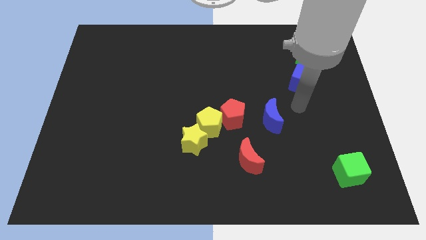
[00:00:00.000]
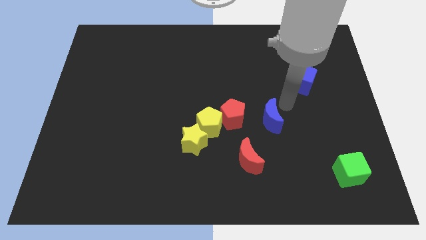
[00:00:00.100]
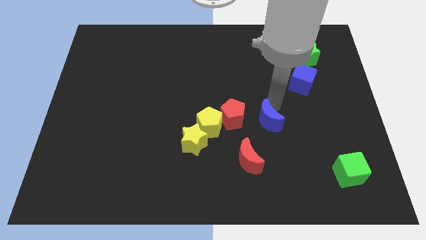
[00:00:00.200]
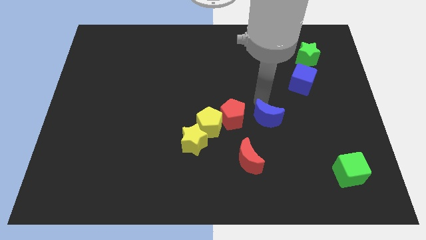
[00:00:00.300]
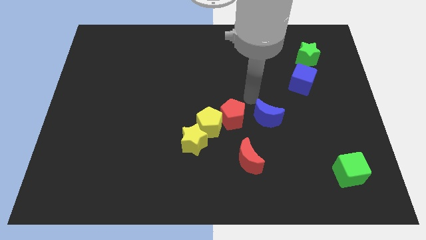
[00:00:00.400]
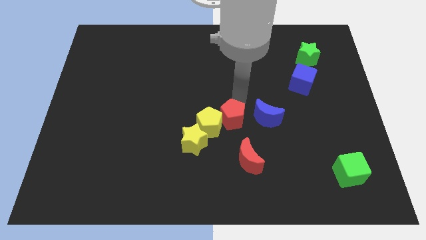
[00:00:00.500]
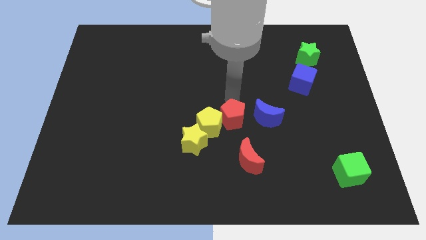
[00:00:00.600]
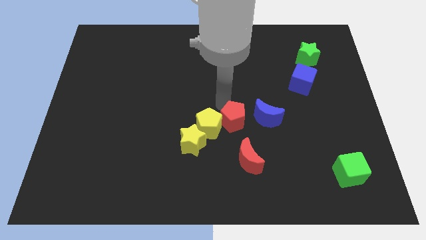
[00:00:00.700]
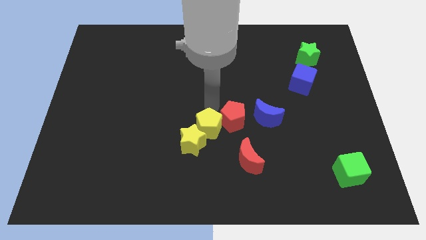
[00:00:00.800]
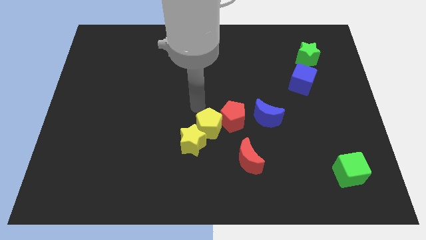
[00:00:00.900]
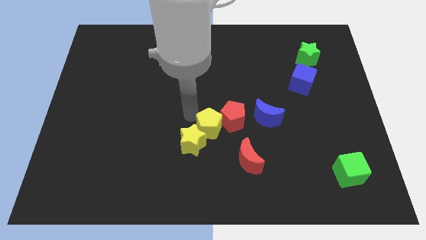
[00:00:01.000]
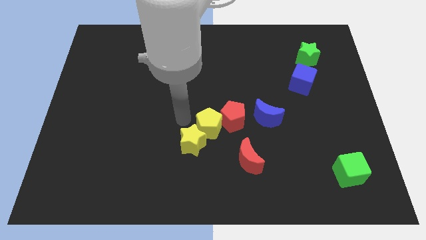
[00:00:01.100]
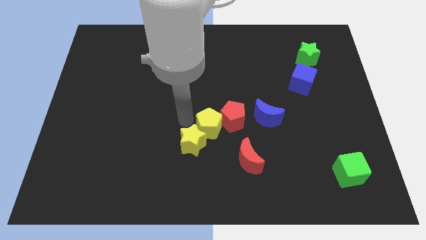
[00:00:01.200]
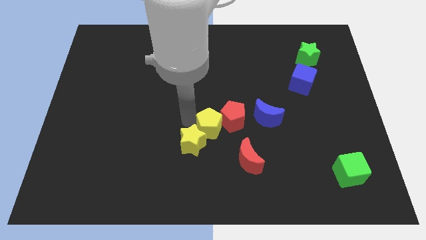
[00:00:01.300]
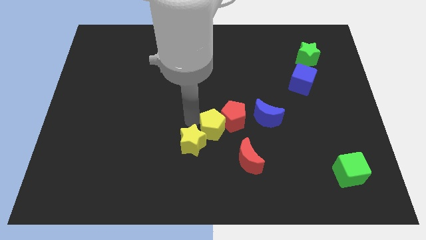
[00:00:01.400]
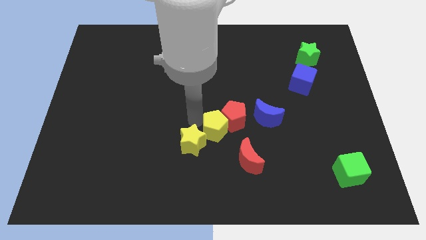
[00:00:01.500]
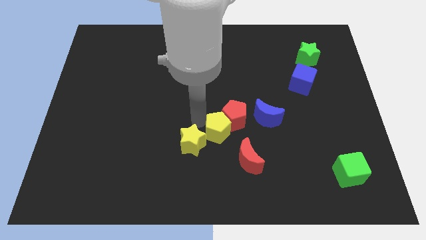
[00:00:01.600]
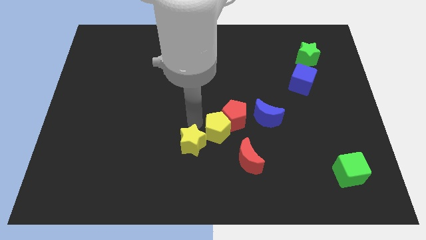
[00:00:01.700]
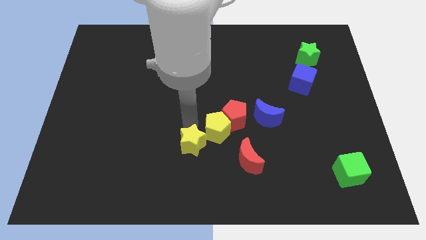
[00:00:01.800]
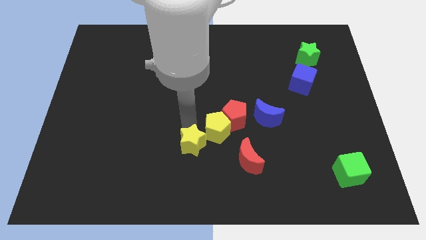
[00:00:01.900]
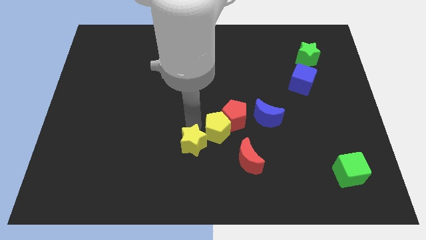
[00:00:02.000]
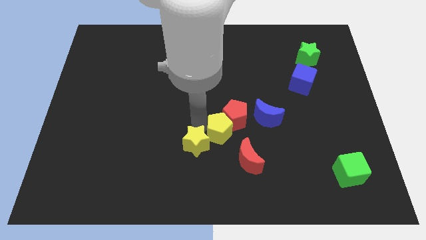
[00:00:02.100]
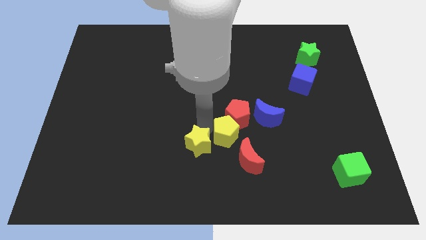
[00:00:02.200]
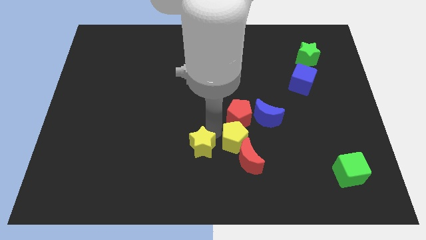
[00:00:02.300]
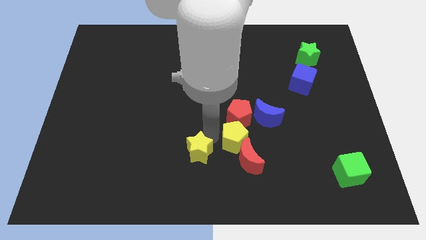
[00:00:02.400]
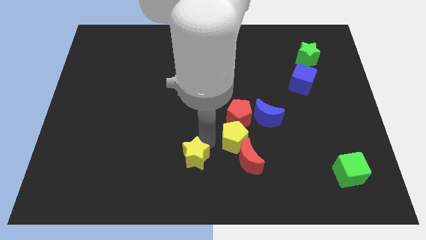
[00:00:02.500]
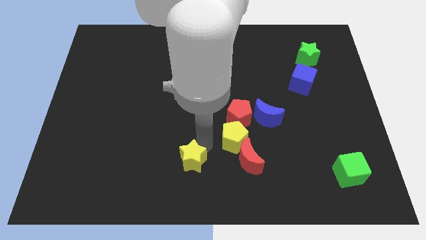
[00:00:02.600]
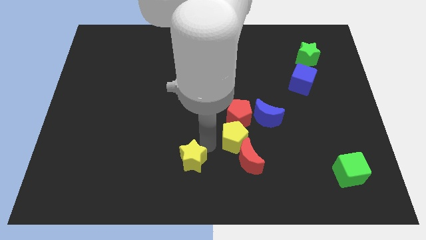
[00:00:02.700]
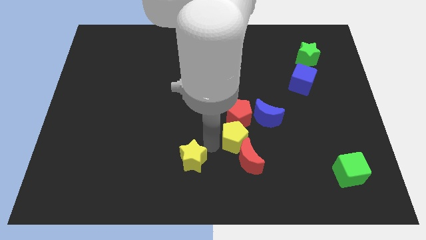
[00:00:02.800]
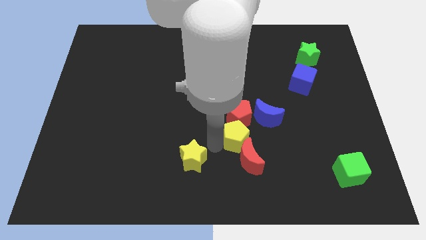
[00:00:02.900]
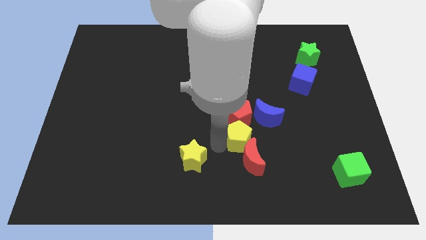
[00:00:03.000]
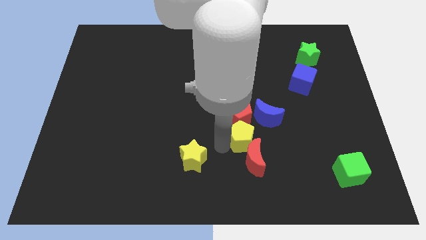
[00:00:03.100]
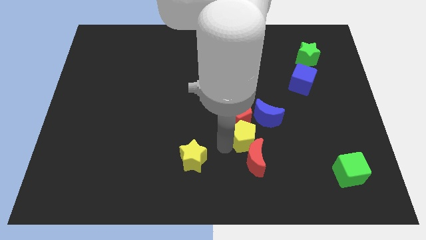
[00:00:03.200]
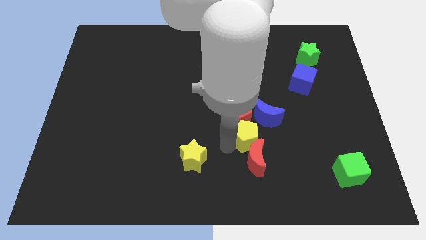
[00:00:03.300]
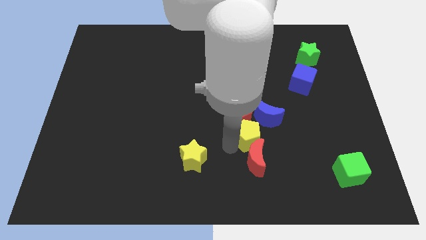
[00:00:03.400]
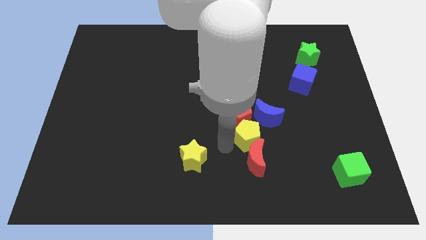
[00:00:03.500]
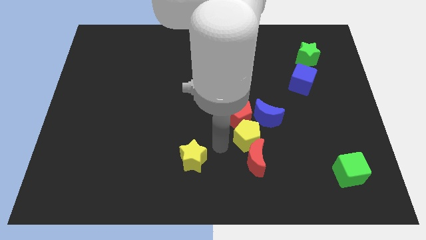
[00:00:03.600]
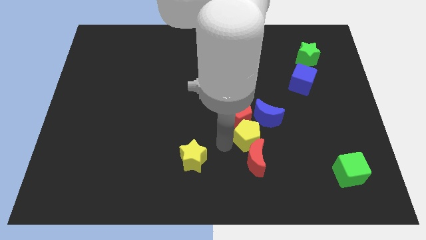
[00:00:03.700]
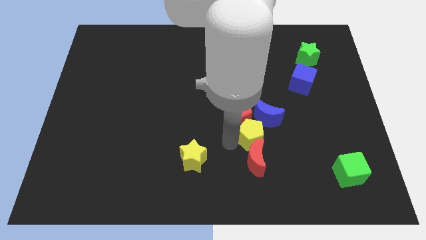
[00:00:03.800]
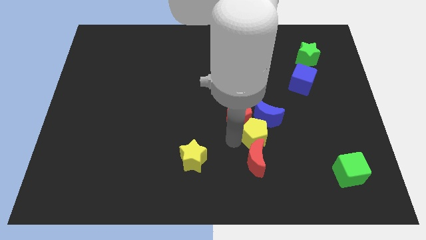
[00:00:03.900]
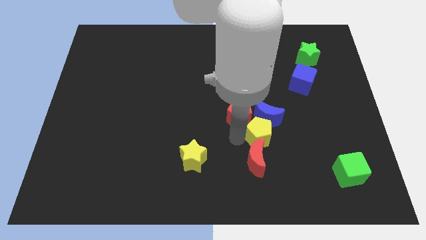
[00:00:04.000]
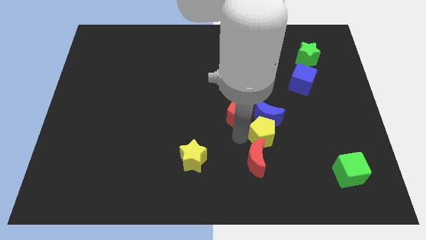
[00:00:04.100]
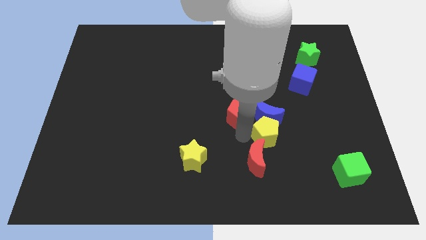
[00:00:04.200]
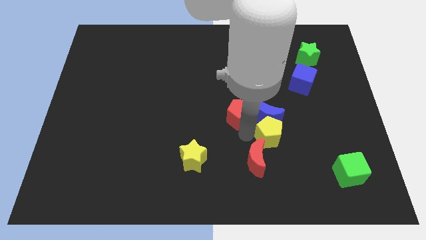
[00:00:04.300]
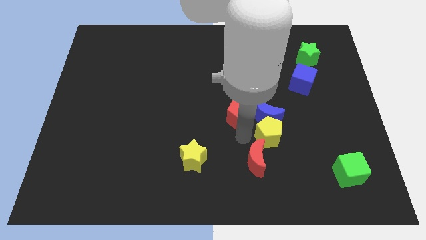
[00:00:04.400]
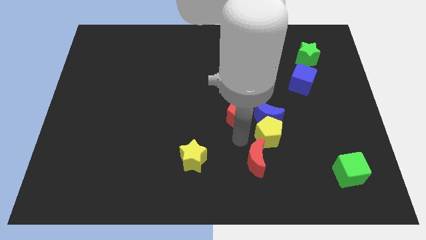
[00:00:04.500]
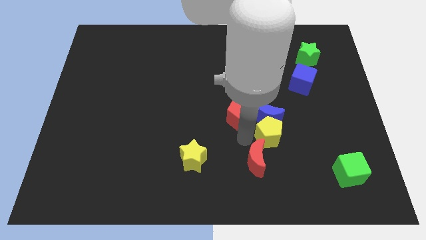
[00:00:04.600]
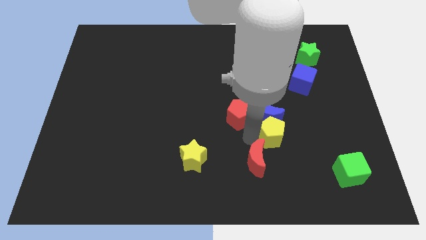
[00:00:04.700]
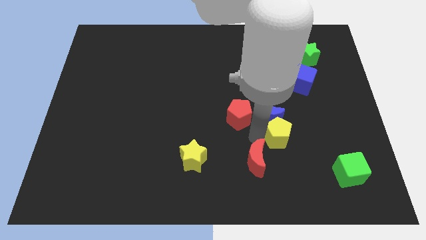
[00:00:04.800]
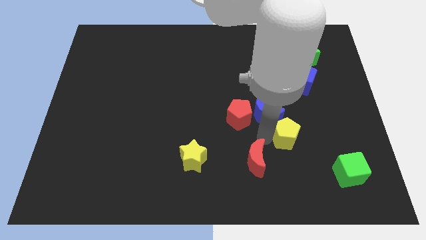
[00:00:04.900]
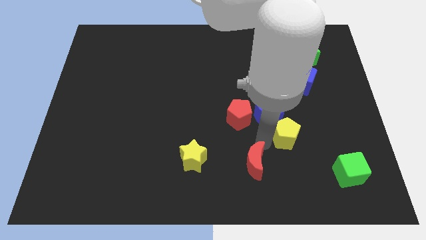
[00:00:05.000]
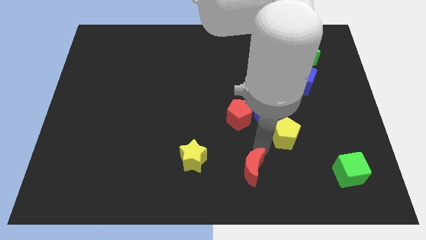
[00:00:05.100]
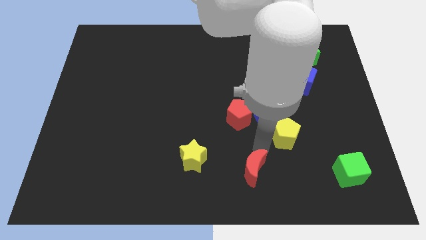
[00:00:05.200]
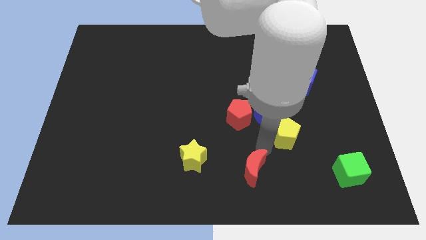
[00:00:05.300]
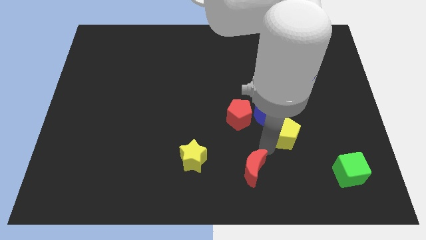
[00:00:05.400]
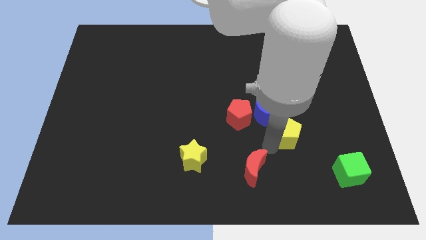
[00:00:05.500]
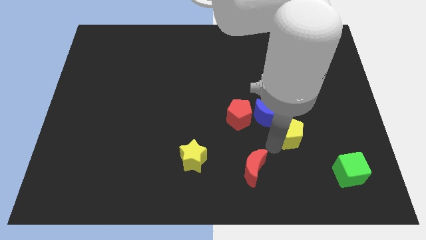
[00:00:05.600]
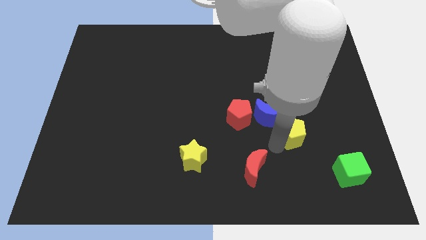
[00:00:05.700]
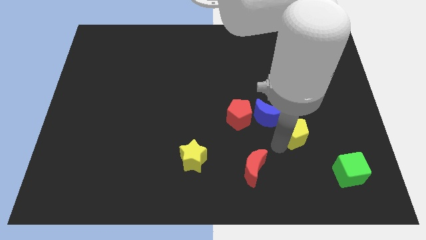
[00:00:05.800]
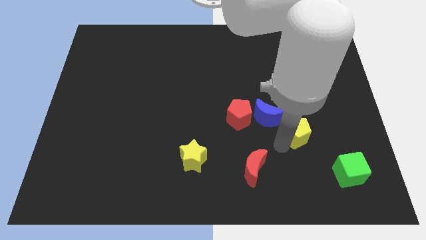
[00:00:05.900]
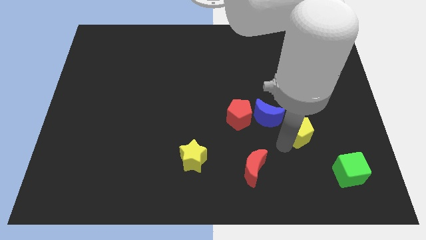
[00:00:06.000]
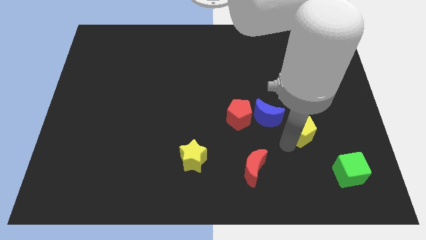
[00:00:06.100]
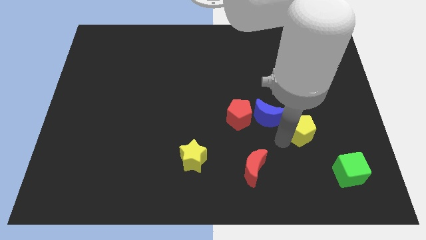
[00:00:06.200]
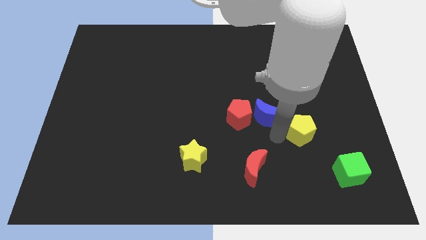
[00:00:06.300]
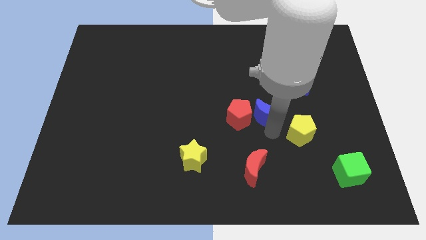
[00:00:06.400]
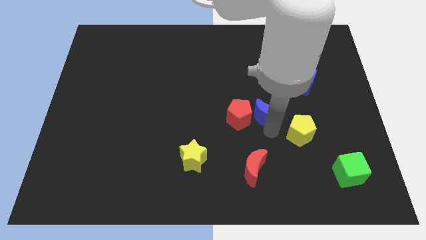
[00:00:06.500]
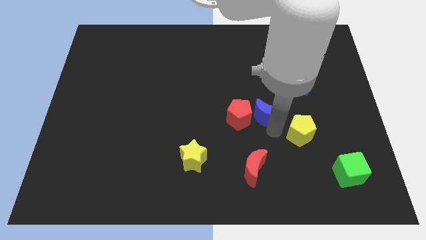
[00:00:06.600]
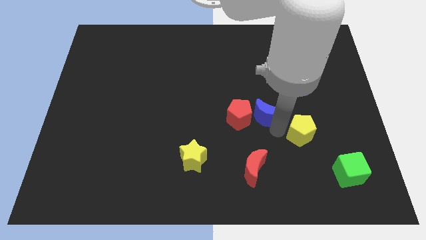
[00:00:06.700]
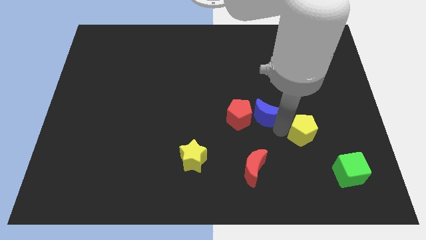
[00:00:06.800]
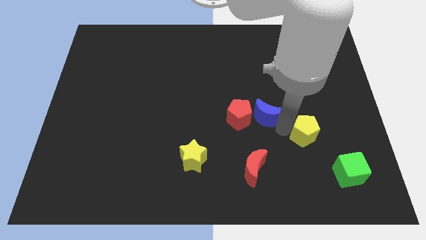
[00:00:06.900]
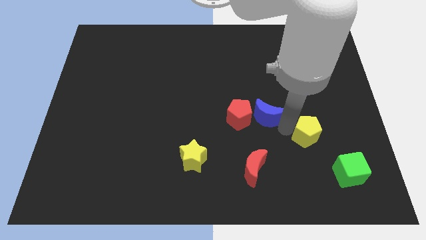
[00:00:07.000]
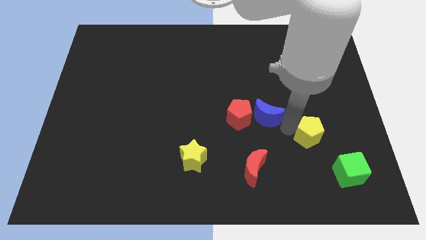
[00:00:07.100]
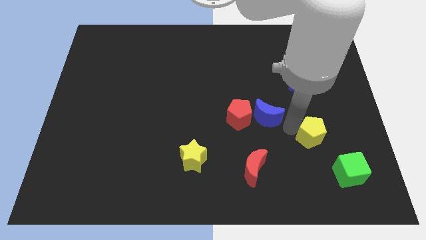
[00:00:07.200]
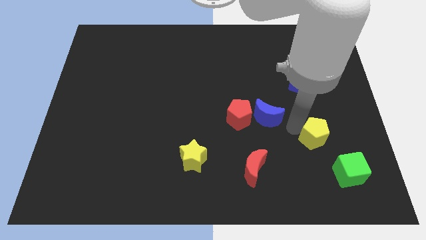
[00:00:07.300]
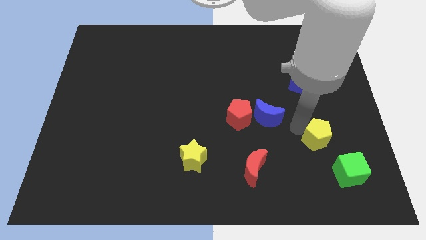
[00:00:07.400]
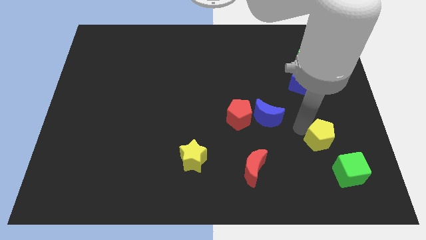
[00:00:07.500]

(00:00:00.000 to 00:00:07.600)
push the yellow pentagon above the green cube

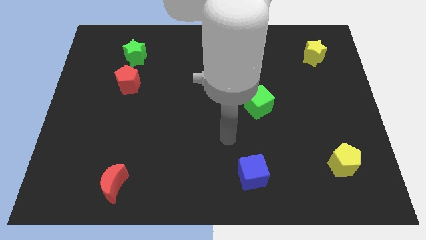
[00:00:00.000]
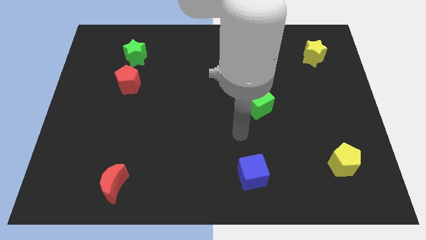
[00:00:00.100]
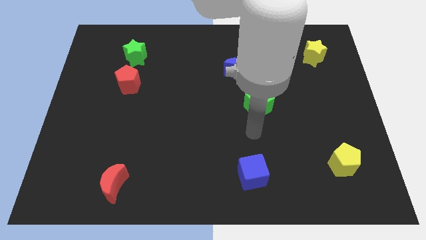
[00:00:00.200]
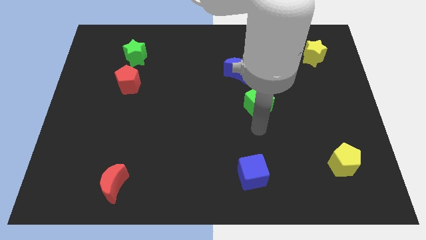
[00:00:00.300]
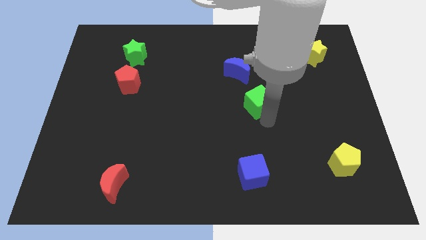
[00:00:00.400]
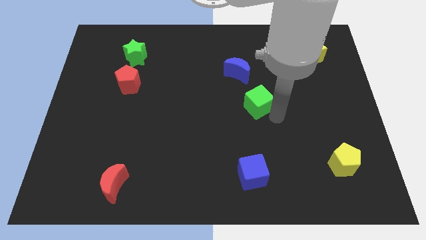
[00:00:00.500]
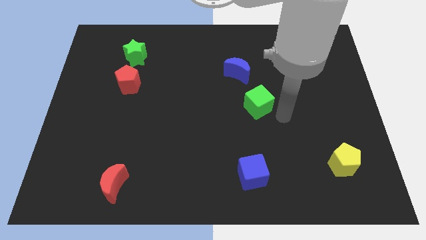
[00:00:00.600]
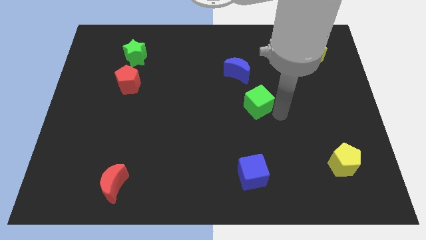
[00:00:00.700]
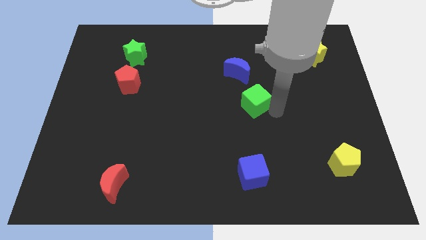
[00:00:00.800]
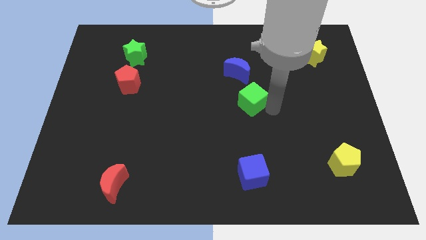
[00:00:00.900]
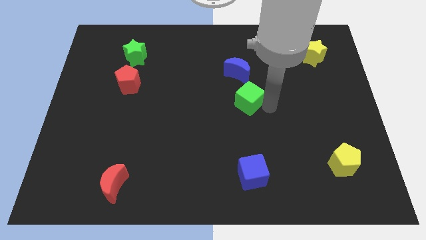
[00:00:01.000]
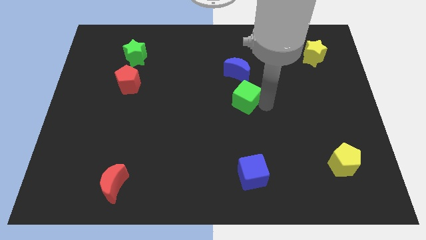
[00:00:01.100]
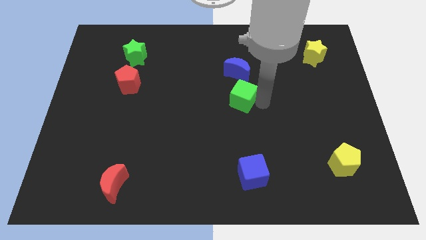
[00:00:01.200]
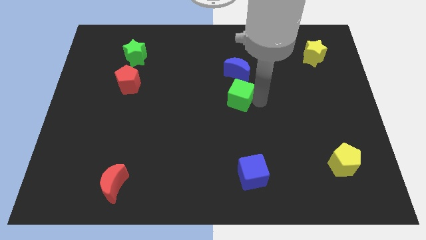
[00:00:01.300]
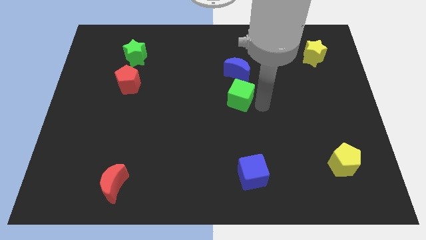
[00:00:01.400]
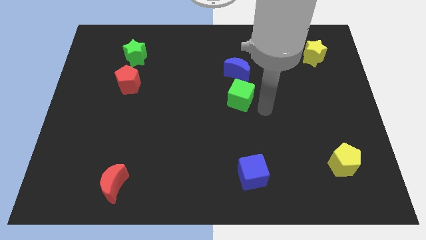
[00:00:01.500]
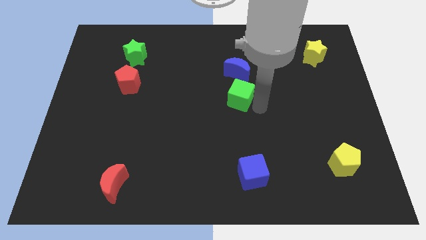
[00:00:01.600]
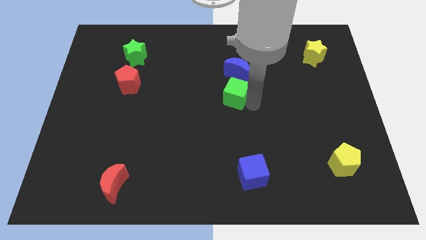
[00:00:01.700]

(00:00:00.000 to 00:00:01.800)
push the green cube to the bottom left side of the blue moon
